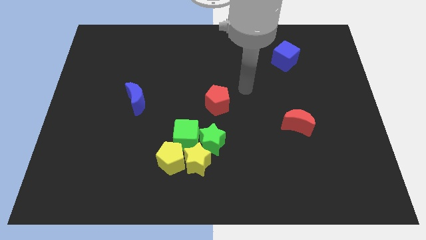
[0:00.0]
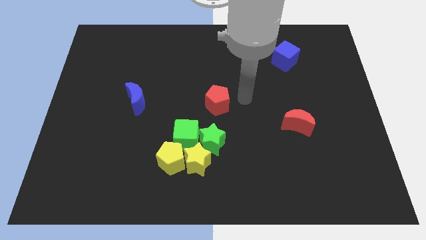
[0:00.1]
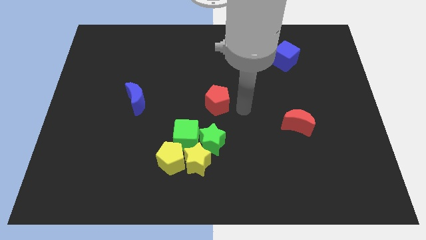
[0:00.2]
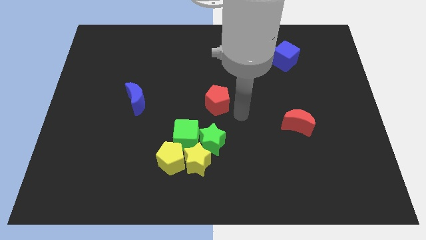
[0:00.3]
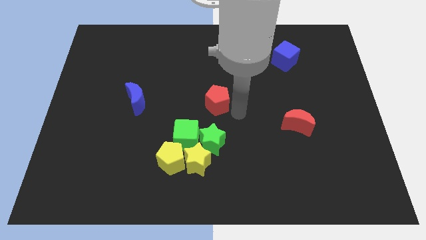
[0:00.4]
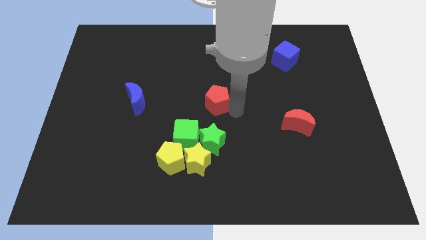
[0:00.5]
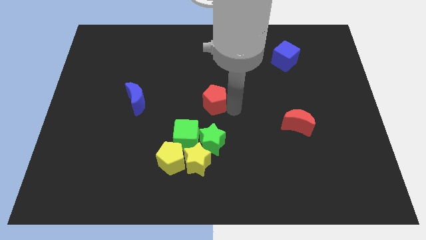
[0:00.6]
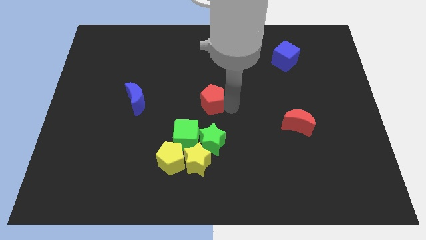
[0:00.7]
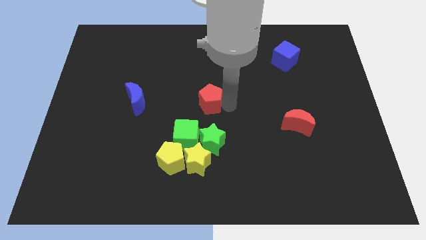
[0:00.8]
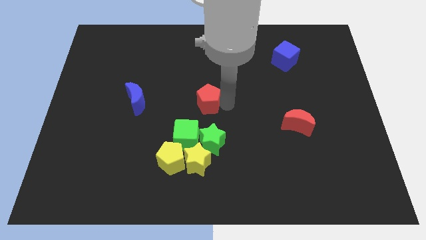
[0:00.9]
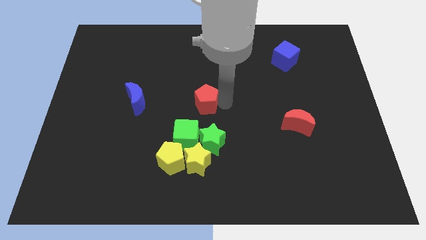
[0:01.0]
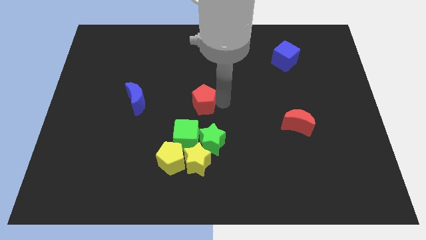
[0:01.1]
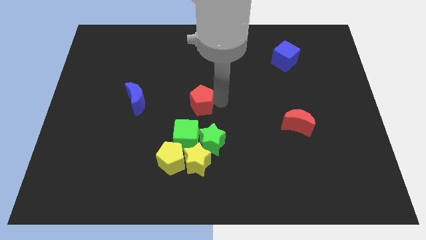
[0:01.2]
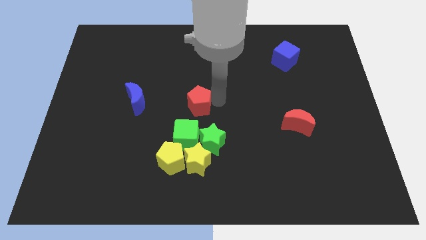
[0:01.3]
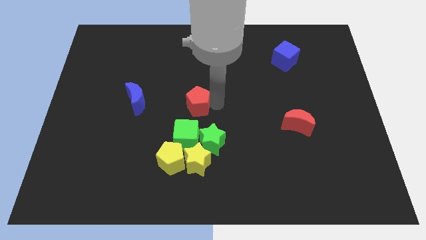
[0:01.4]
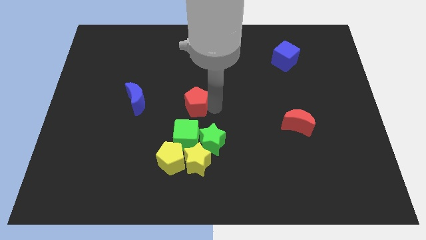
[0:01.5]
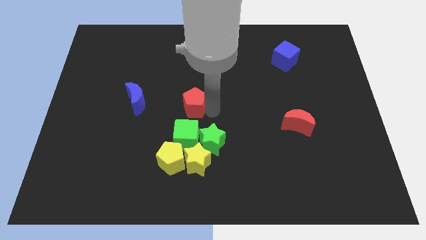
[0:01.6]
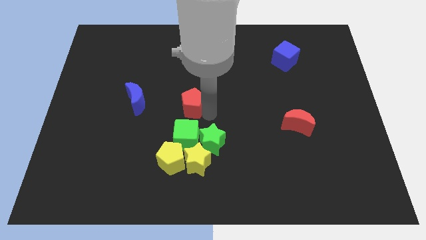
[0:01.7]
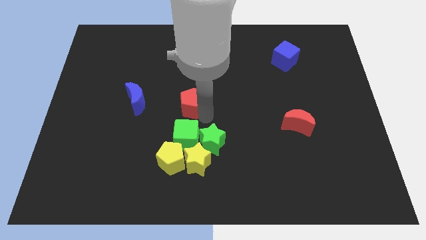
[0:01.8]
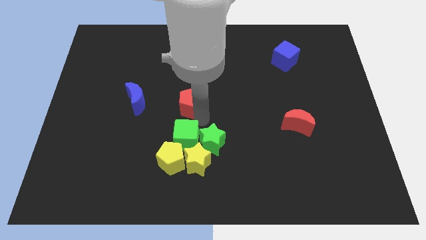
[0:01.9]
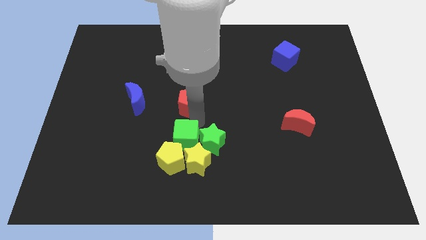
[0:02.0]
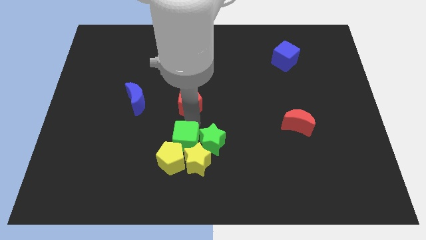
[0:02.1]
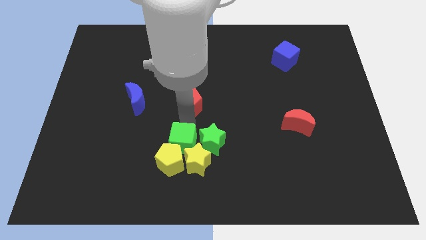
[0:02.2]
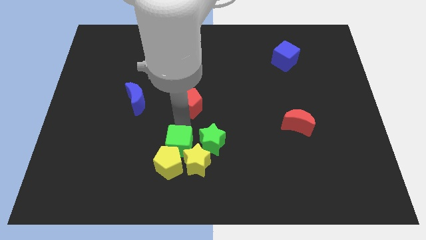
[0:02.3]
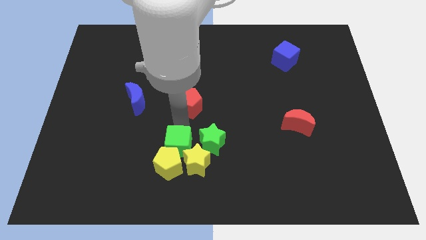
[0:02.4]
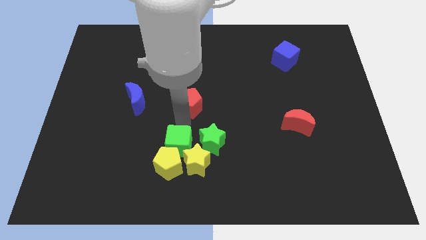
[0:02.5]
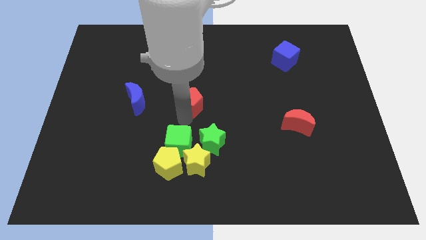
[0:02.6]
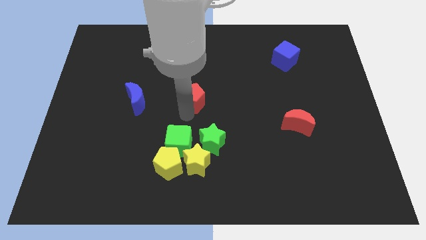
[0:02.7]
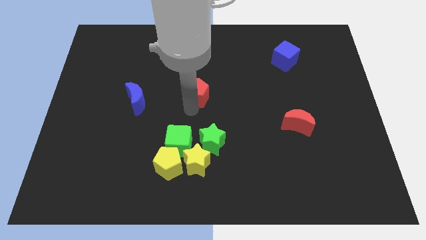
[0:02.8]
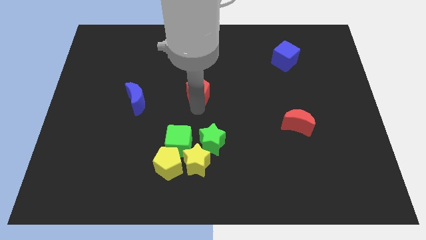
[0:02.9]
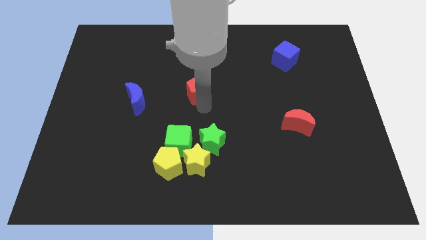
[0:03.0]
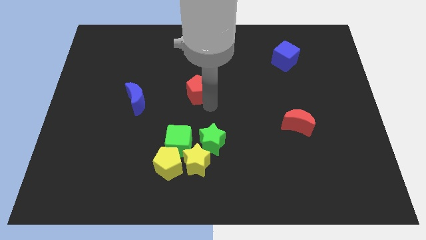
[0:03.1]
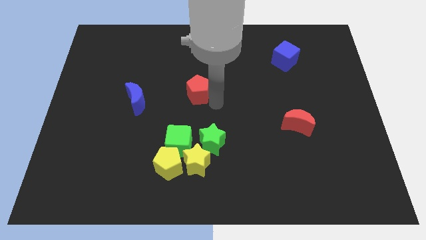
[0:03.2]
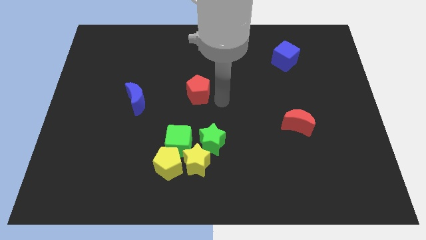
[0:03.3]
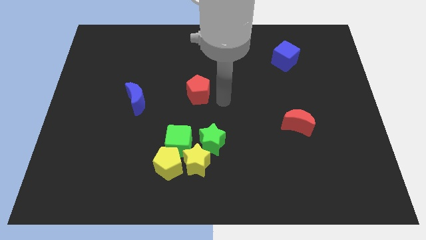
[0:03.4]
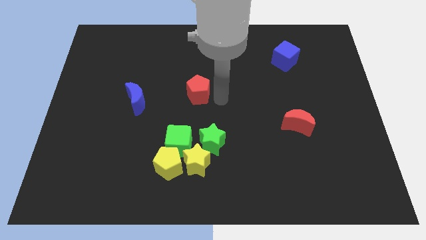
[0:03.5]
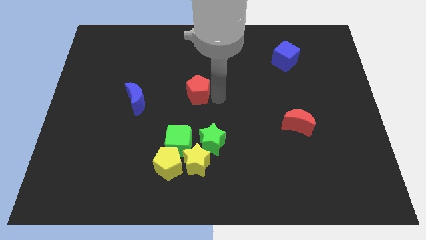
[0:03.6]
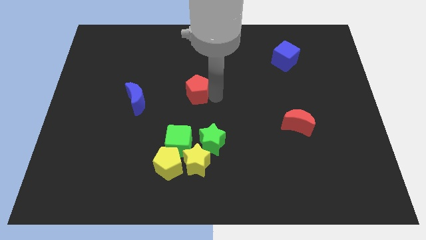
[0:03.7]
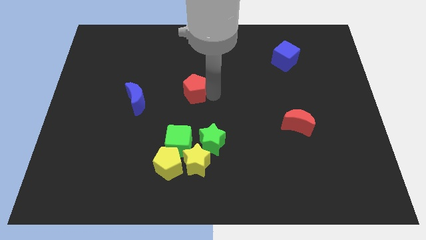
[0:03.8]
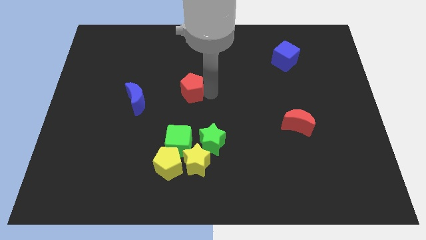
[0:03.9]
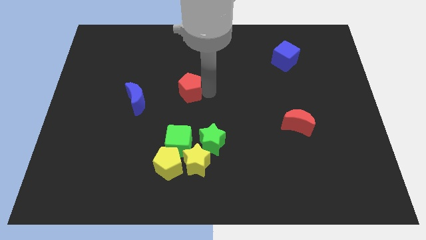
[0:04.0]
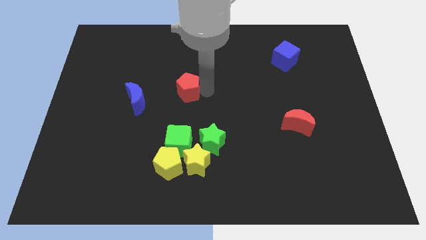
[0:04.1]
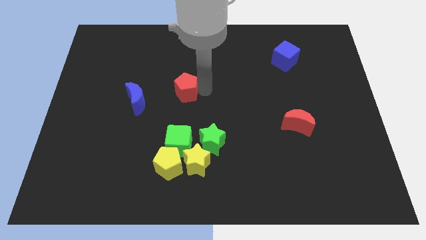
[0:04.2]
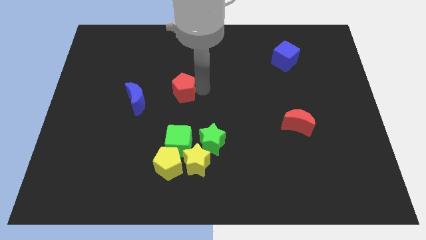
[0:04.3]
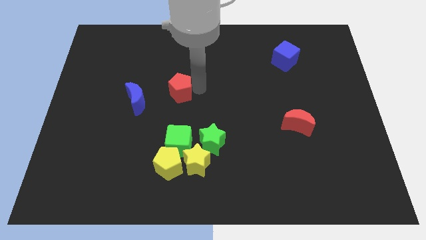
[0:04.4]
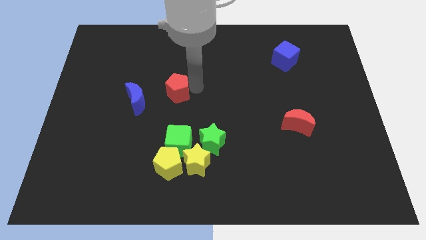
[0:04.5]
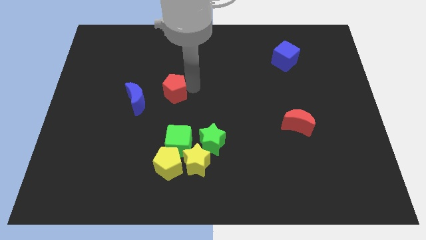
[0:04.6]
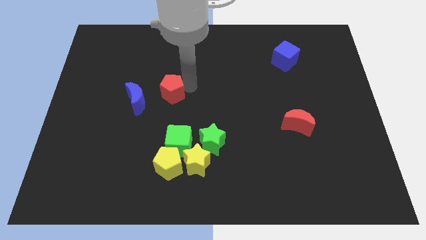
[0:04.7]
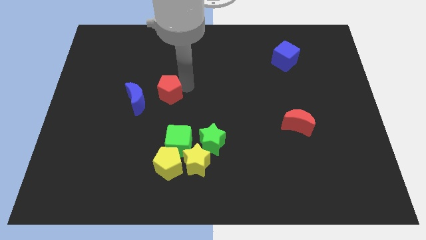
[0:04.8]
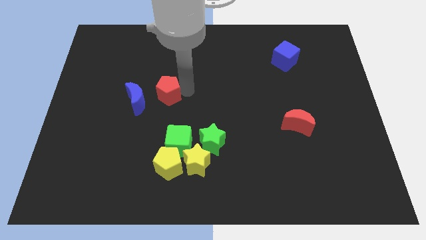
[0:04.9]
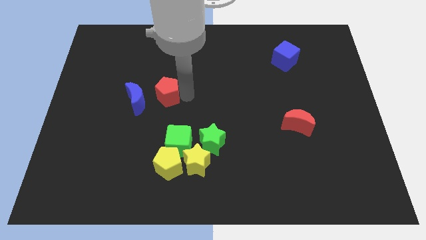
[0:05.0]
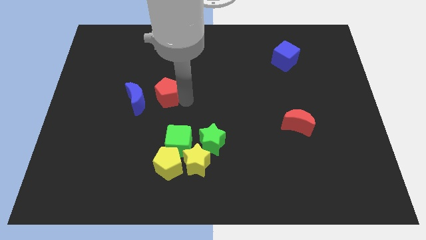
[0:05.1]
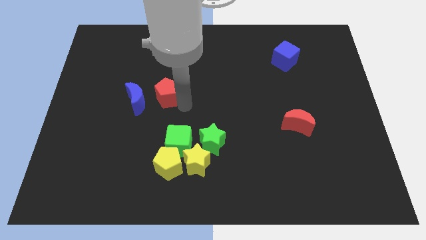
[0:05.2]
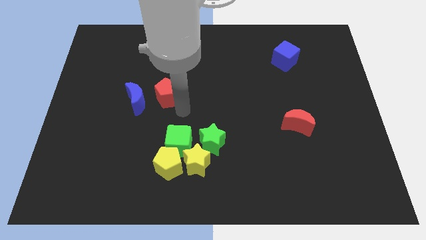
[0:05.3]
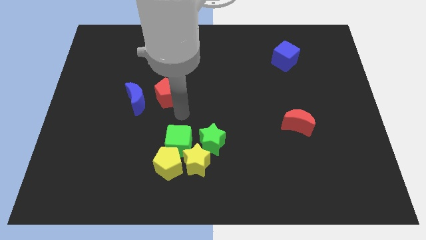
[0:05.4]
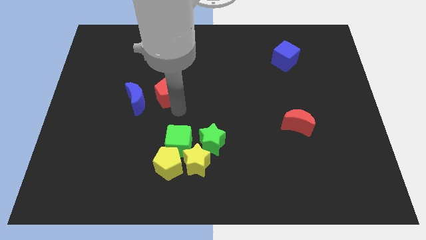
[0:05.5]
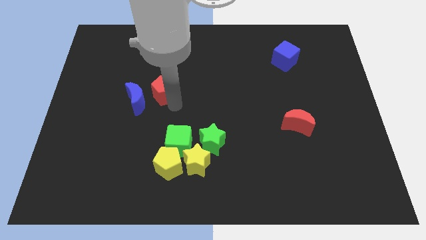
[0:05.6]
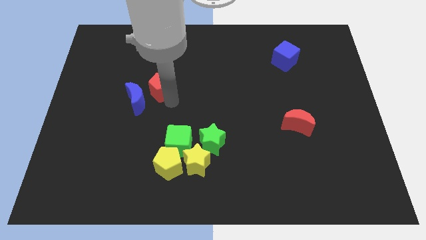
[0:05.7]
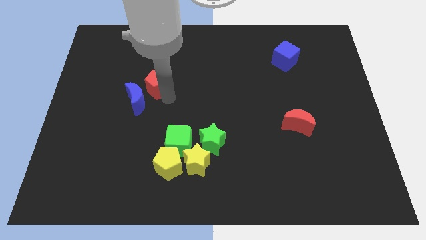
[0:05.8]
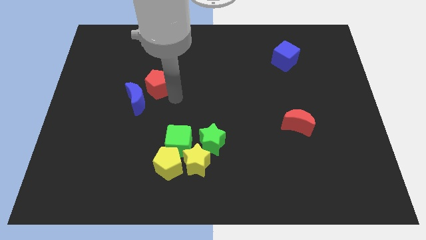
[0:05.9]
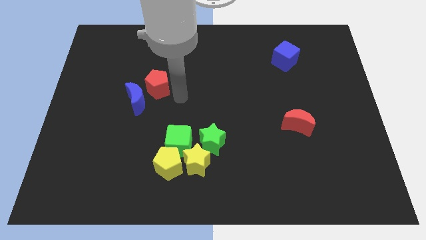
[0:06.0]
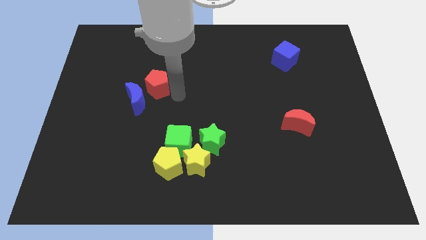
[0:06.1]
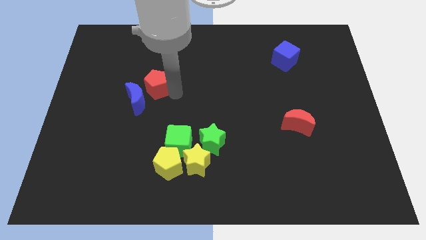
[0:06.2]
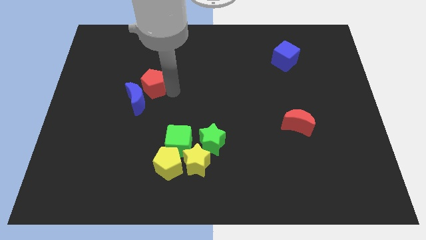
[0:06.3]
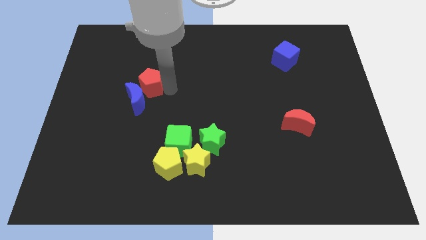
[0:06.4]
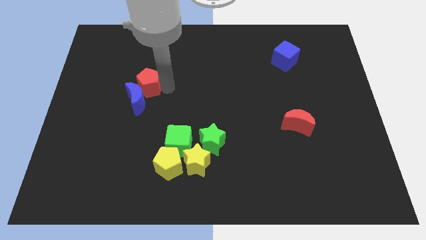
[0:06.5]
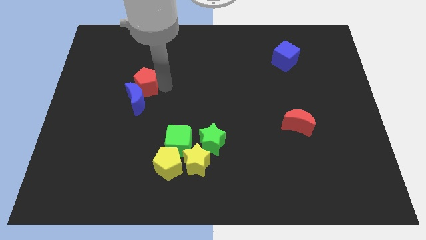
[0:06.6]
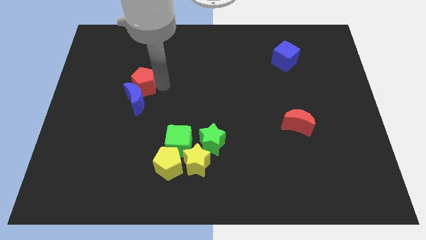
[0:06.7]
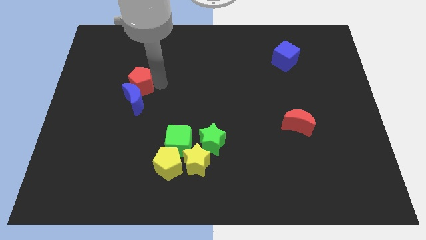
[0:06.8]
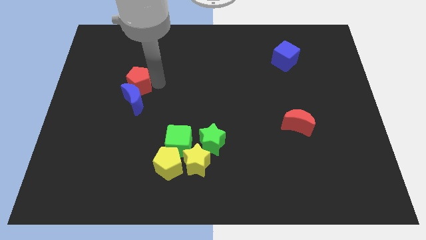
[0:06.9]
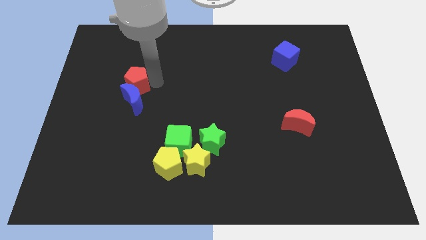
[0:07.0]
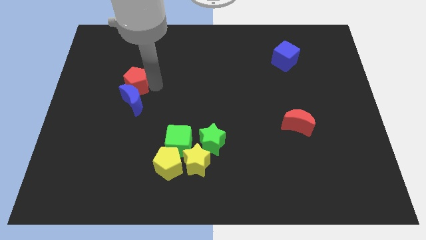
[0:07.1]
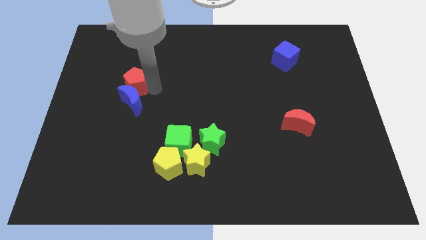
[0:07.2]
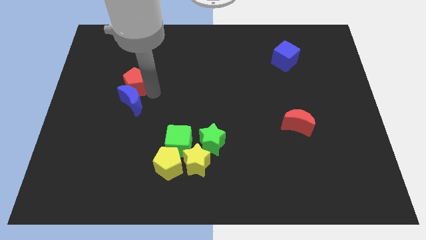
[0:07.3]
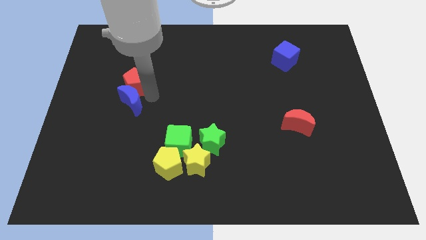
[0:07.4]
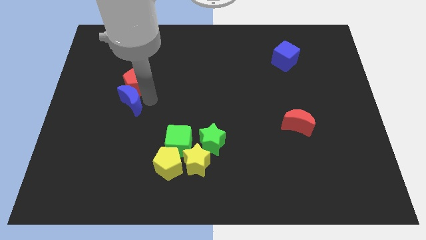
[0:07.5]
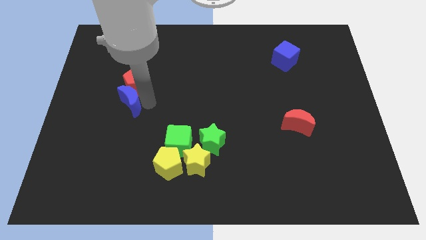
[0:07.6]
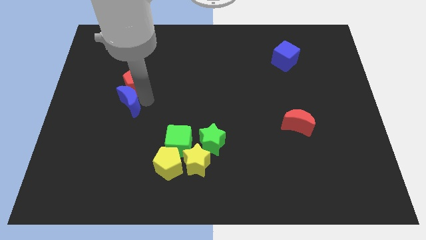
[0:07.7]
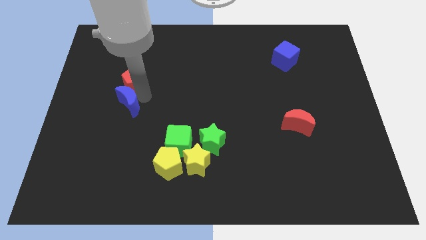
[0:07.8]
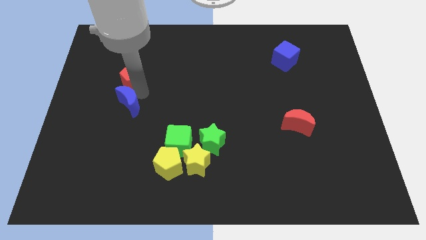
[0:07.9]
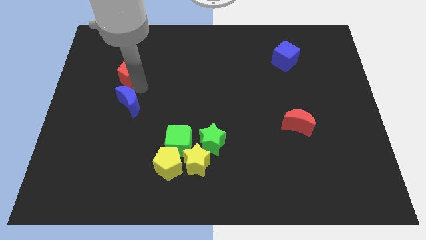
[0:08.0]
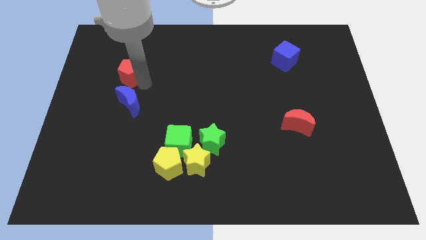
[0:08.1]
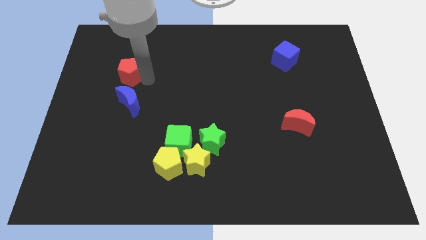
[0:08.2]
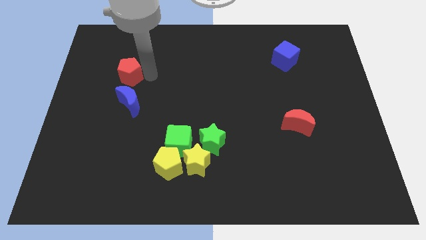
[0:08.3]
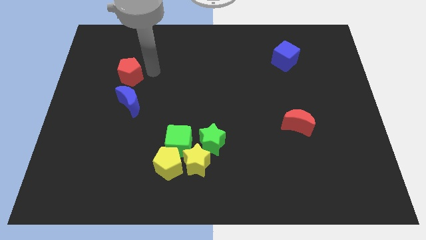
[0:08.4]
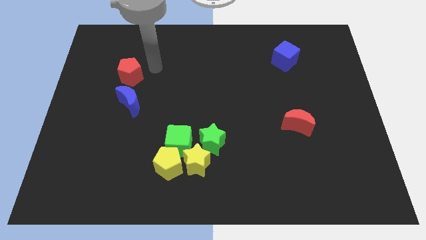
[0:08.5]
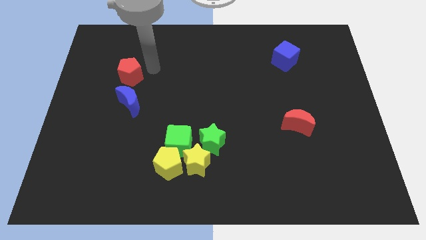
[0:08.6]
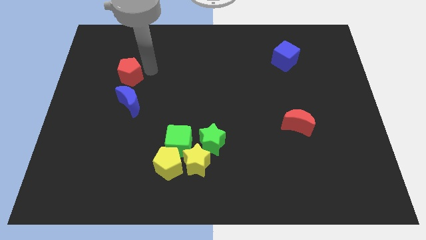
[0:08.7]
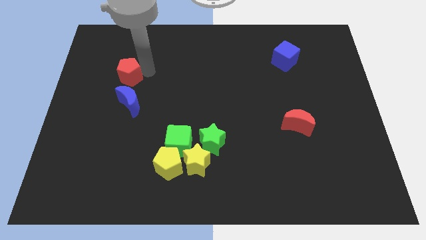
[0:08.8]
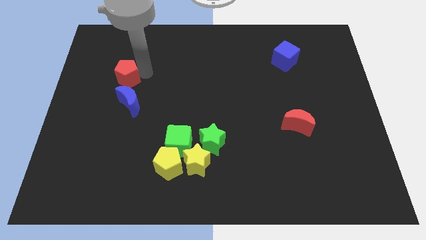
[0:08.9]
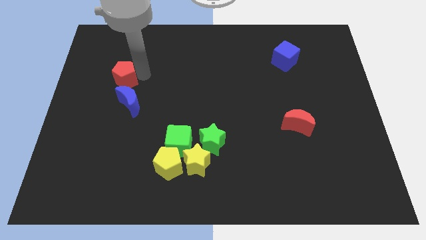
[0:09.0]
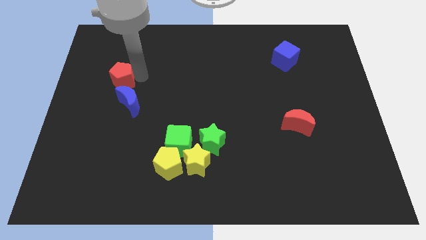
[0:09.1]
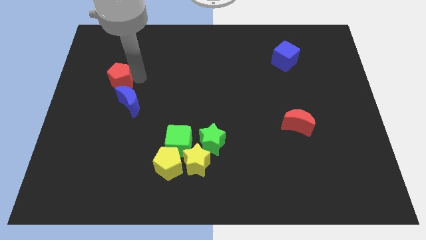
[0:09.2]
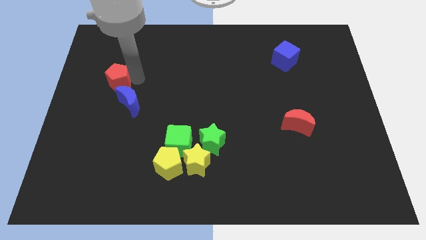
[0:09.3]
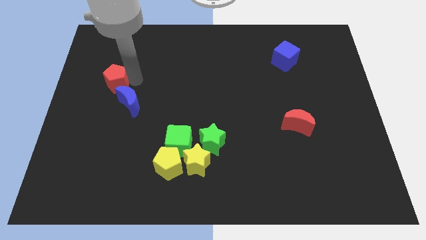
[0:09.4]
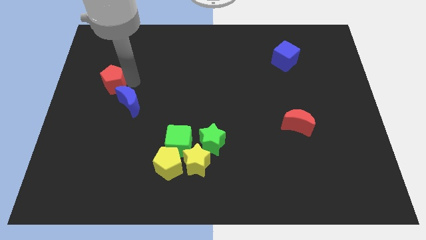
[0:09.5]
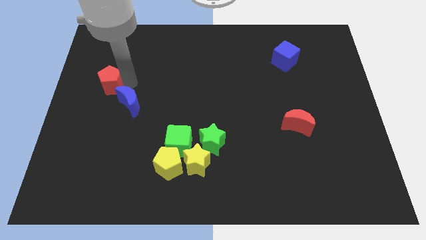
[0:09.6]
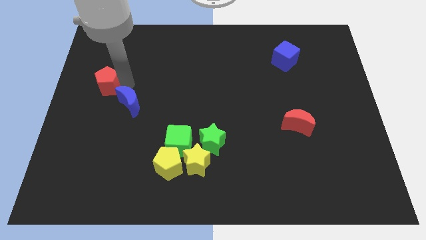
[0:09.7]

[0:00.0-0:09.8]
move the red pentagon to the left side of the board
